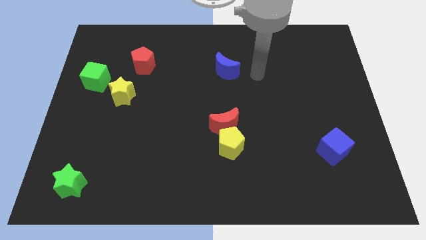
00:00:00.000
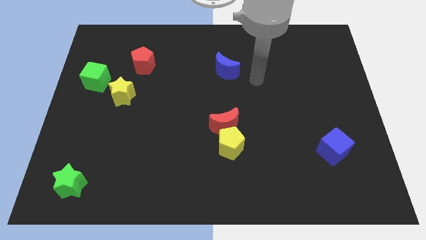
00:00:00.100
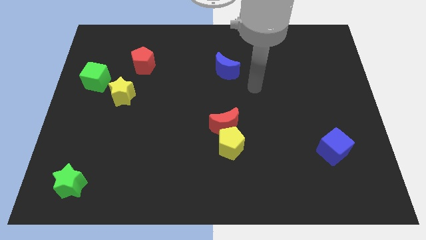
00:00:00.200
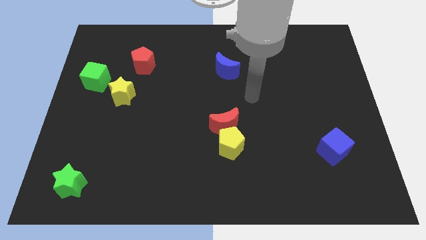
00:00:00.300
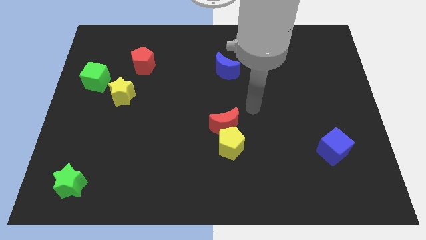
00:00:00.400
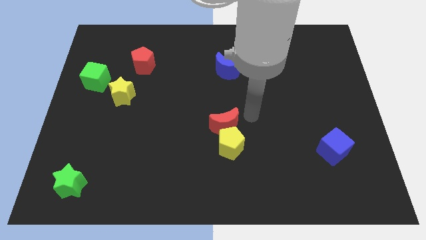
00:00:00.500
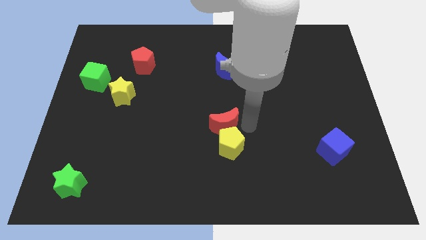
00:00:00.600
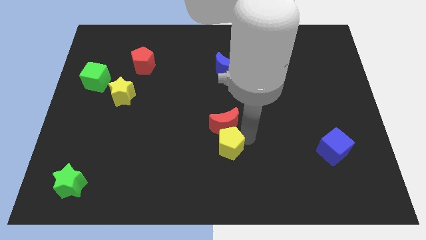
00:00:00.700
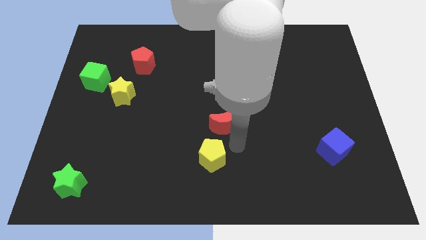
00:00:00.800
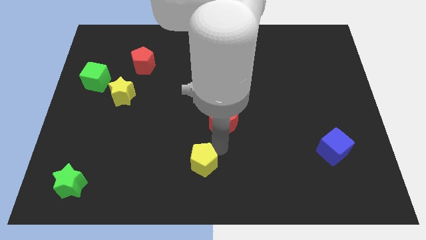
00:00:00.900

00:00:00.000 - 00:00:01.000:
pull the red moon apart from the yellow pentagon

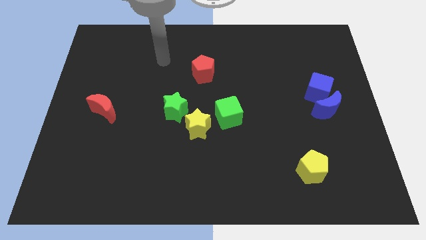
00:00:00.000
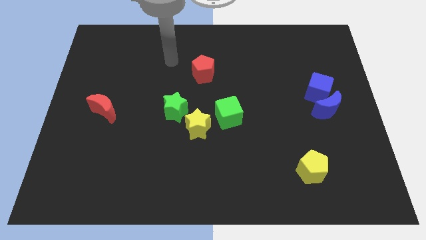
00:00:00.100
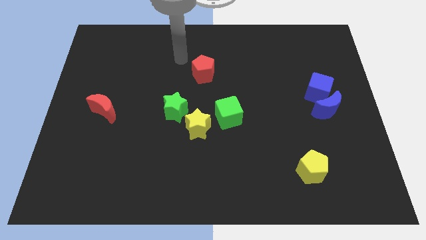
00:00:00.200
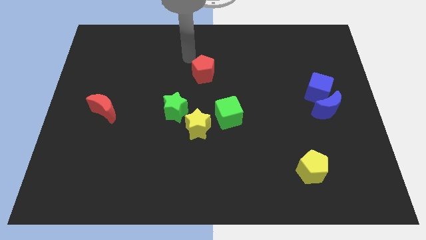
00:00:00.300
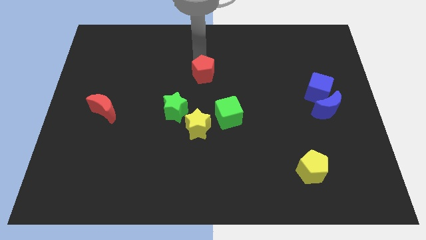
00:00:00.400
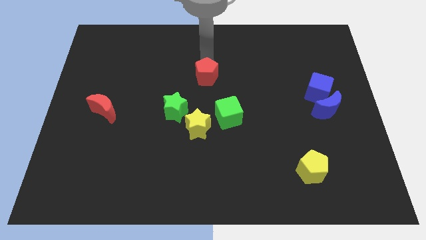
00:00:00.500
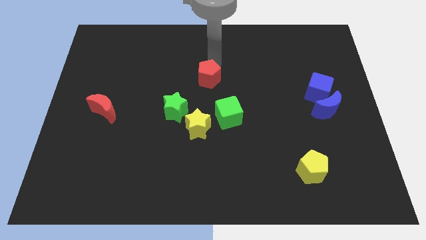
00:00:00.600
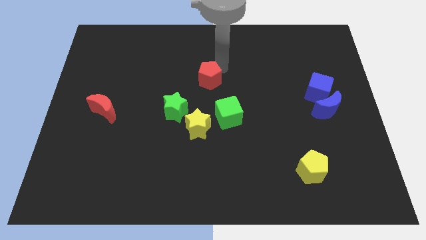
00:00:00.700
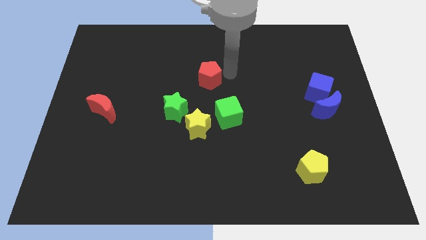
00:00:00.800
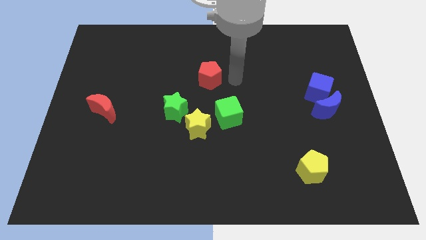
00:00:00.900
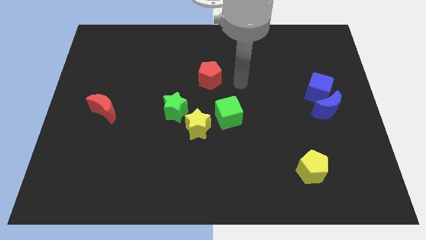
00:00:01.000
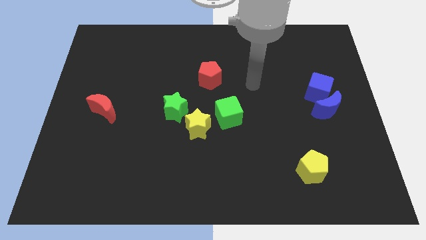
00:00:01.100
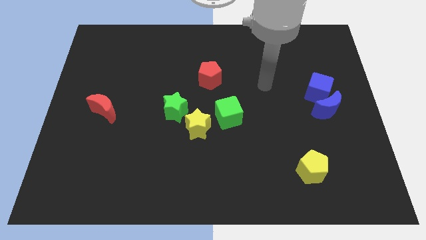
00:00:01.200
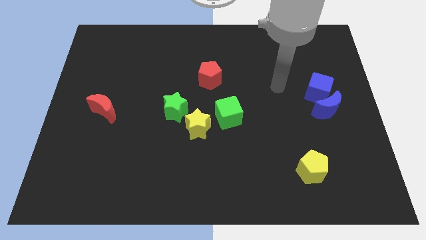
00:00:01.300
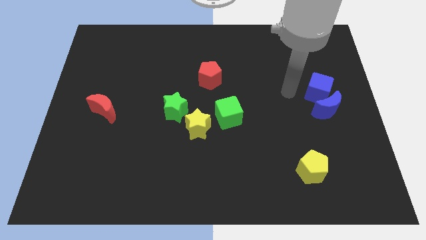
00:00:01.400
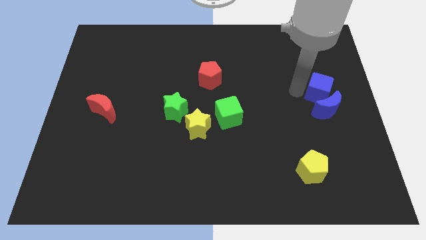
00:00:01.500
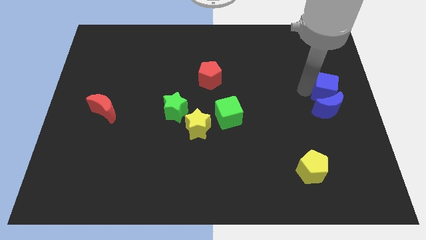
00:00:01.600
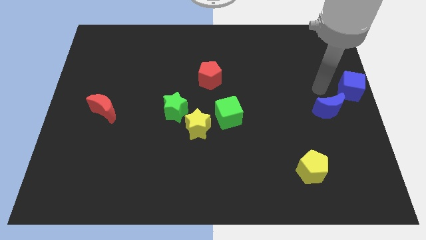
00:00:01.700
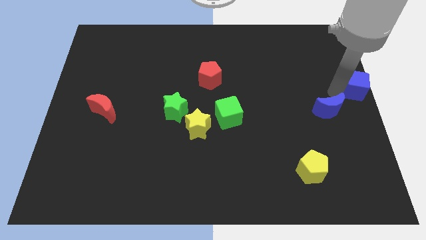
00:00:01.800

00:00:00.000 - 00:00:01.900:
move the blue moon away from the blue cube

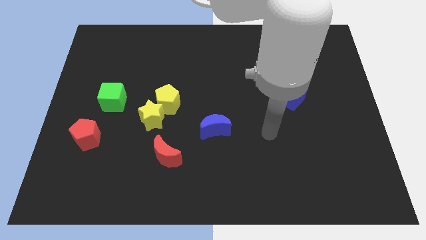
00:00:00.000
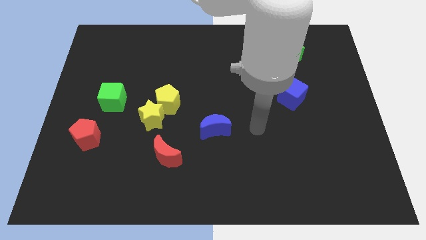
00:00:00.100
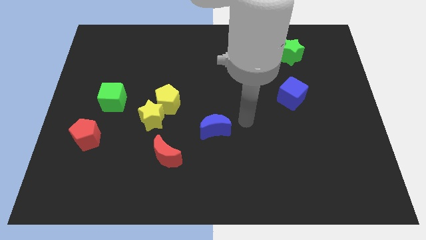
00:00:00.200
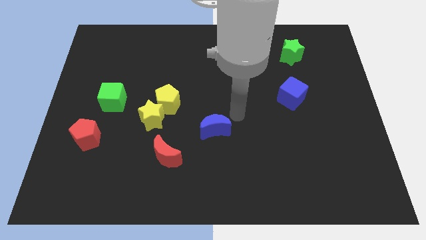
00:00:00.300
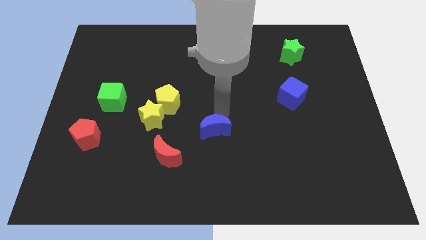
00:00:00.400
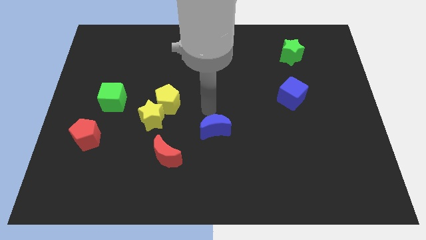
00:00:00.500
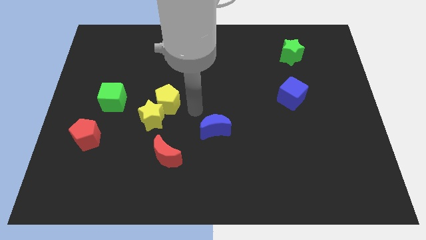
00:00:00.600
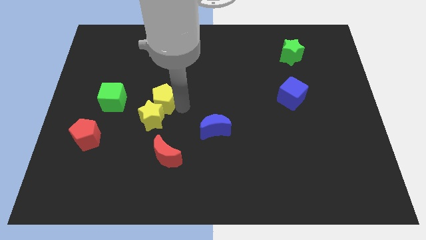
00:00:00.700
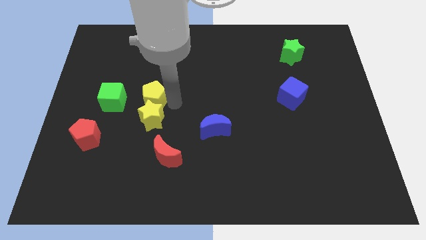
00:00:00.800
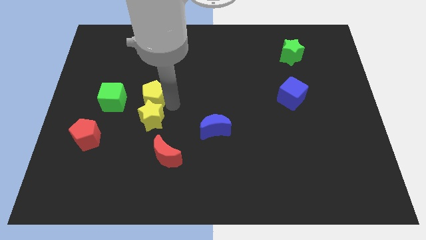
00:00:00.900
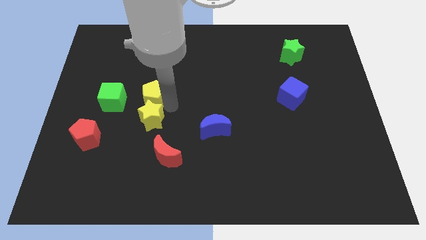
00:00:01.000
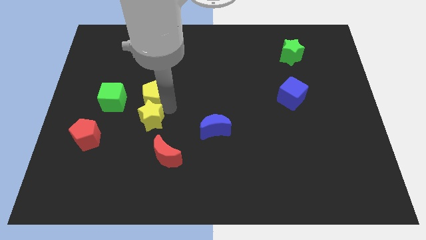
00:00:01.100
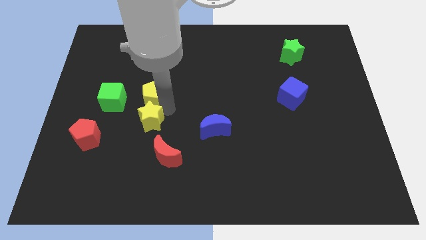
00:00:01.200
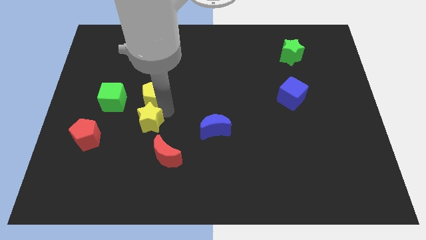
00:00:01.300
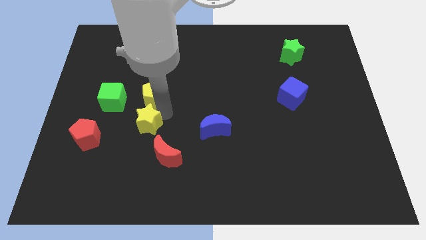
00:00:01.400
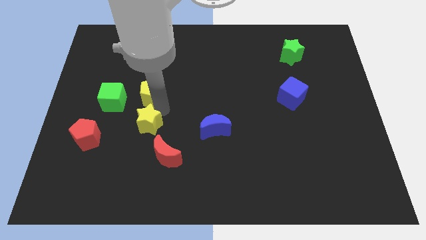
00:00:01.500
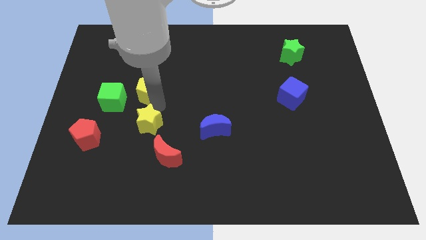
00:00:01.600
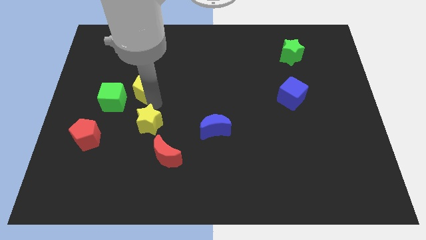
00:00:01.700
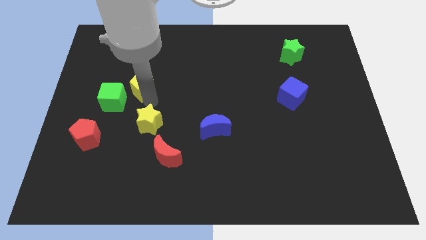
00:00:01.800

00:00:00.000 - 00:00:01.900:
pull the yellow star apart from the yellow pentagon

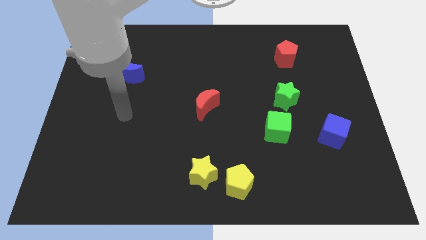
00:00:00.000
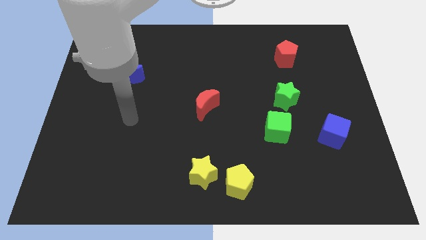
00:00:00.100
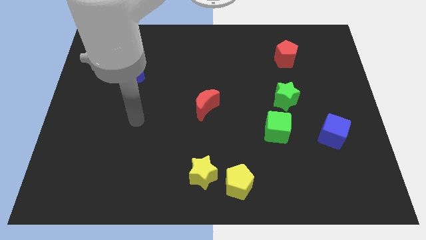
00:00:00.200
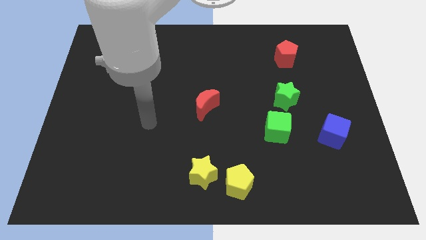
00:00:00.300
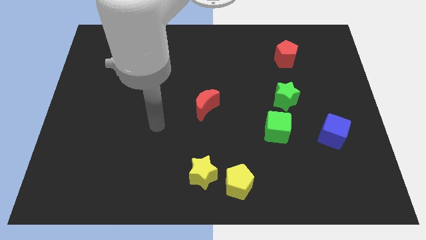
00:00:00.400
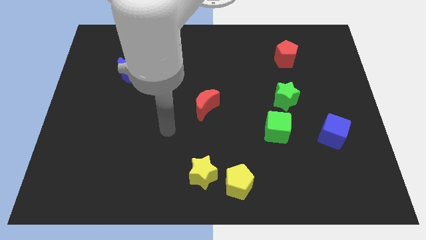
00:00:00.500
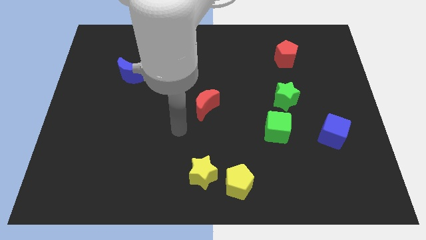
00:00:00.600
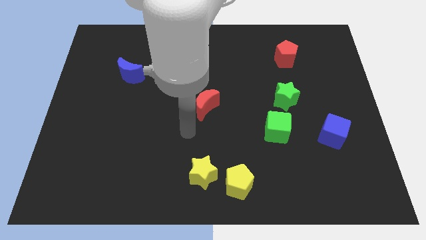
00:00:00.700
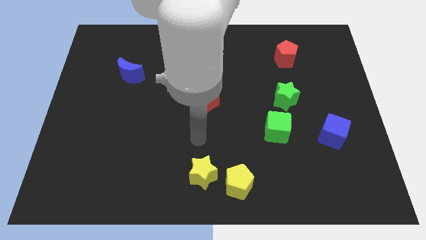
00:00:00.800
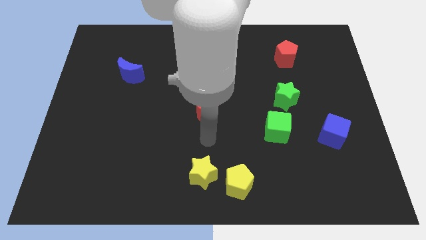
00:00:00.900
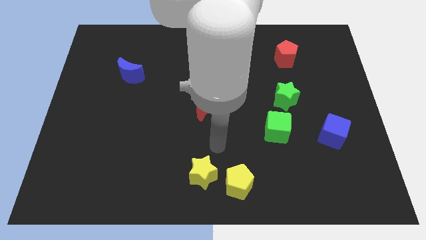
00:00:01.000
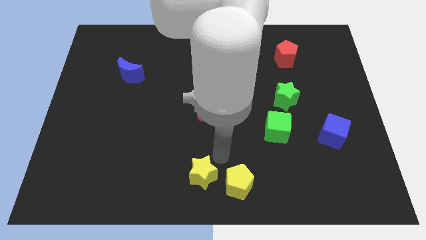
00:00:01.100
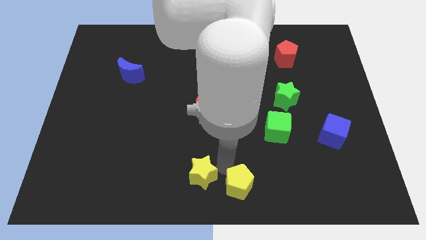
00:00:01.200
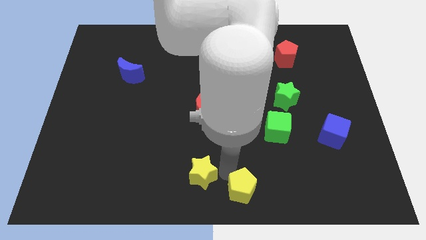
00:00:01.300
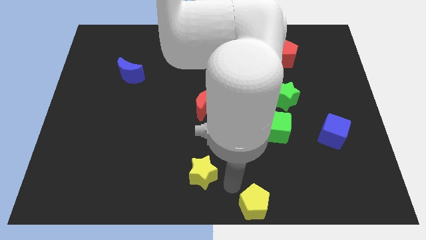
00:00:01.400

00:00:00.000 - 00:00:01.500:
separate the yellow star from the yellow pentagon

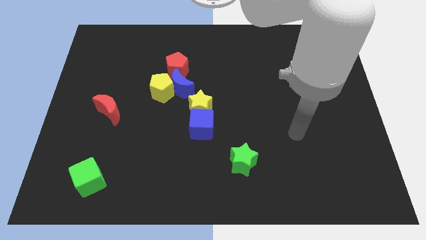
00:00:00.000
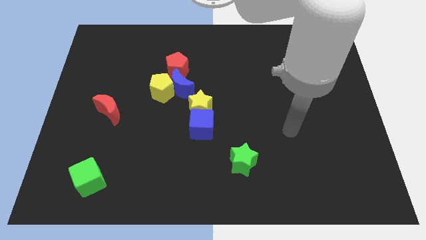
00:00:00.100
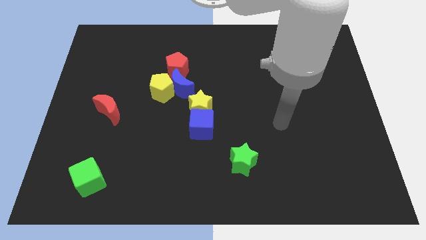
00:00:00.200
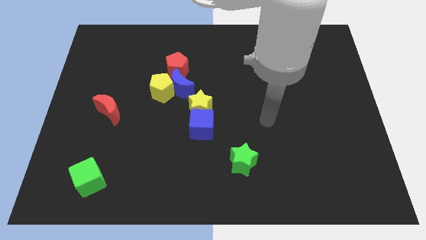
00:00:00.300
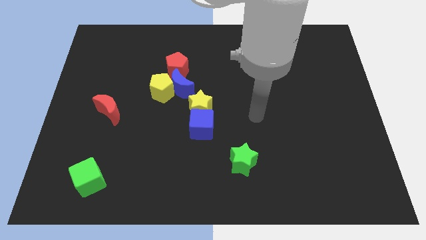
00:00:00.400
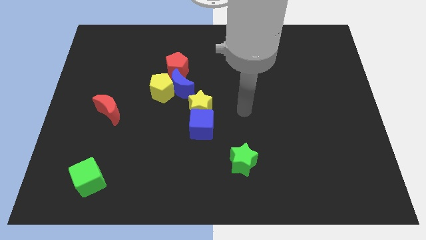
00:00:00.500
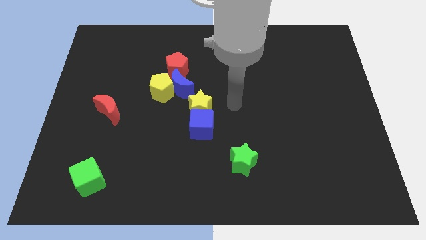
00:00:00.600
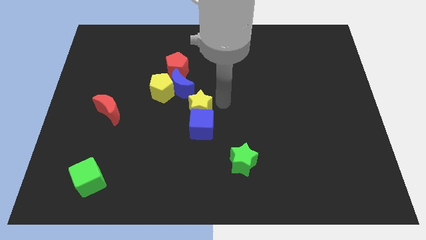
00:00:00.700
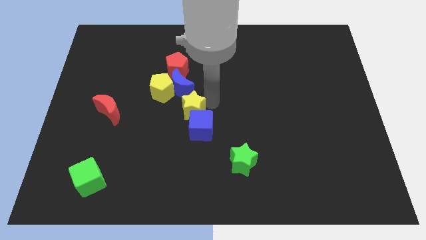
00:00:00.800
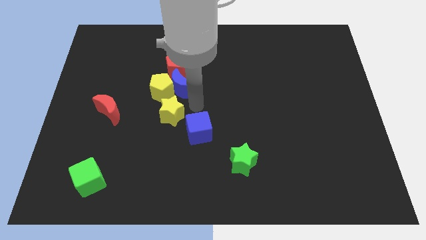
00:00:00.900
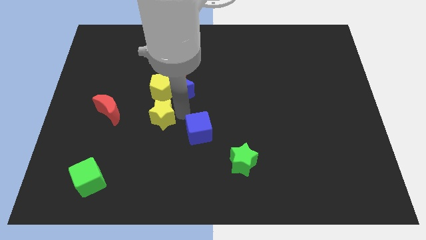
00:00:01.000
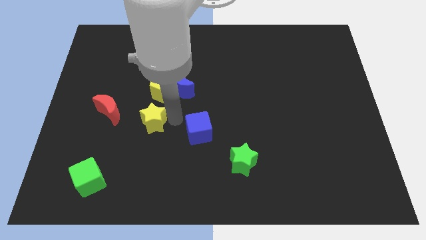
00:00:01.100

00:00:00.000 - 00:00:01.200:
separate the blue cube from the yellow star

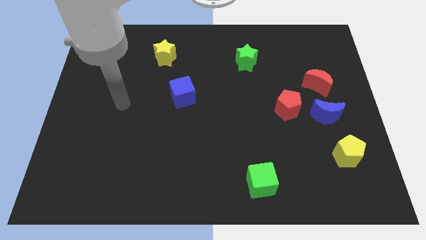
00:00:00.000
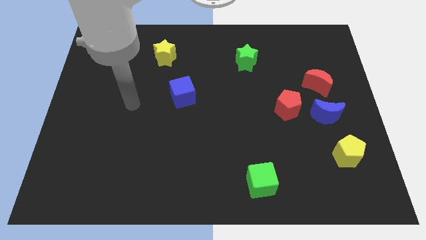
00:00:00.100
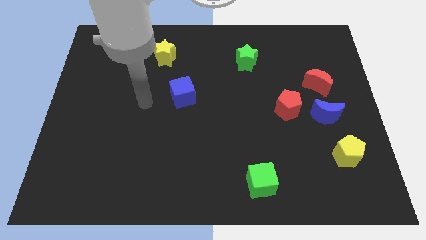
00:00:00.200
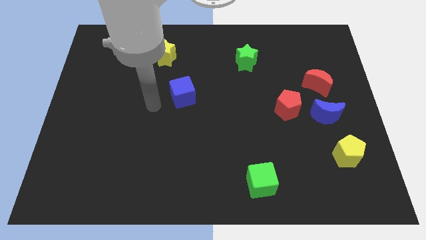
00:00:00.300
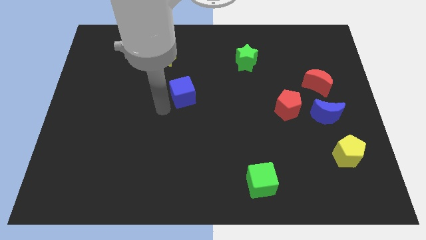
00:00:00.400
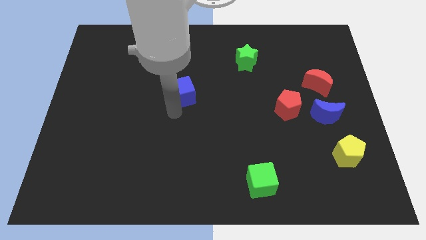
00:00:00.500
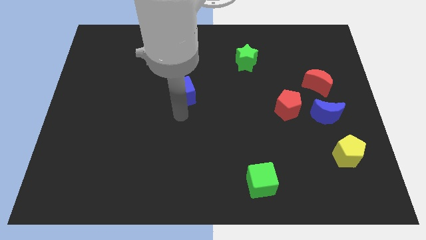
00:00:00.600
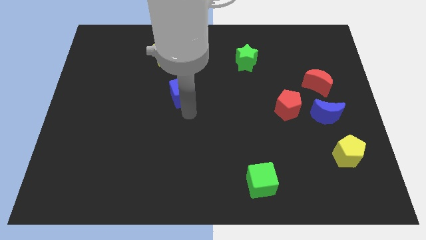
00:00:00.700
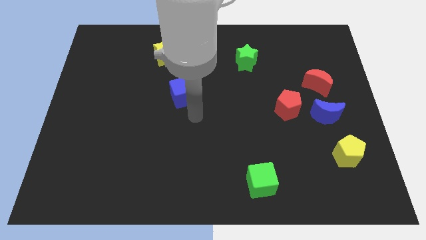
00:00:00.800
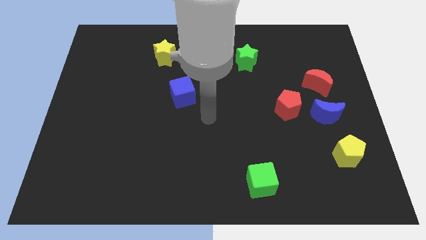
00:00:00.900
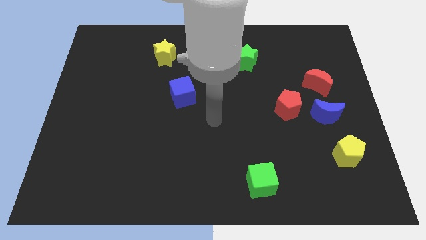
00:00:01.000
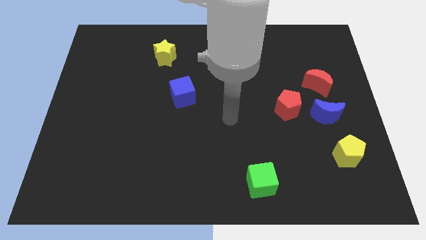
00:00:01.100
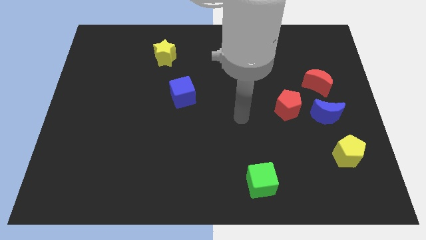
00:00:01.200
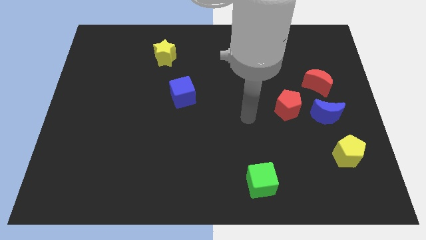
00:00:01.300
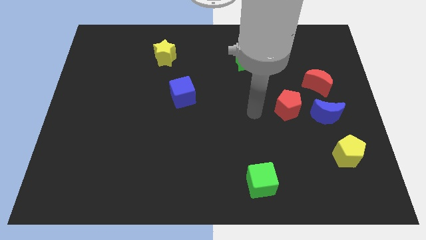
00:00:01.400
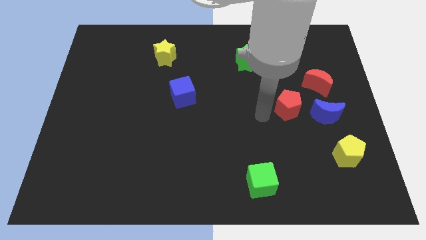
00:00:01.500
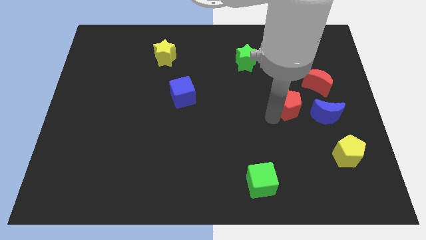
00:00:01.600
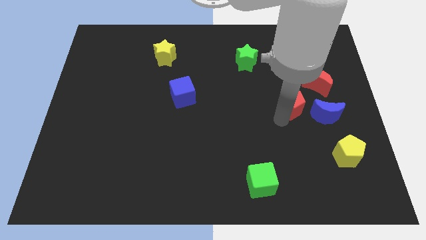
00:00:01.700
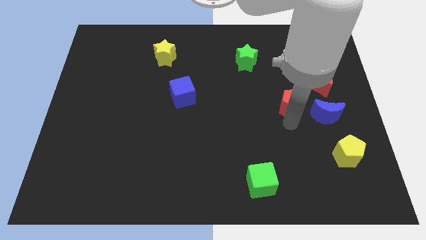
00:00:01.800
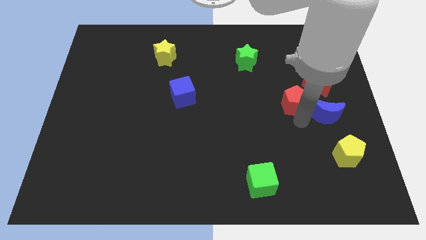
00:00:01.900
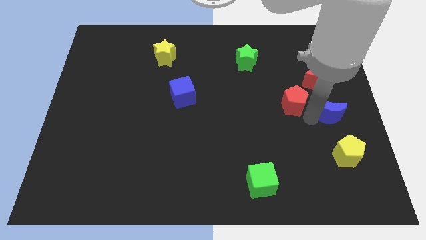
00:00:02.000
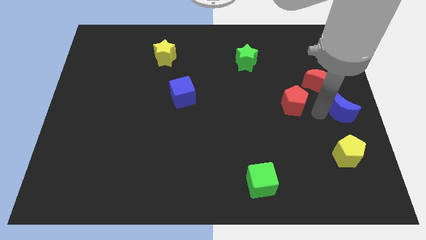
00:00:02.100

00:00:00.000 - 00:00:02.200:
pull the red pentagon apart from the blue moon
